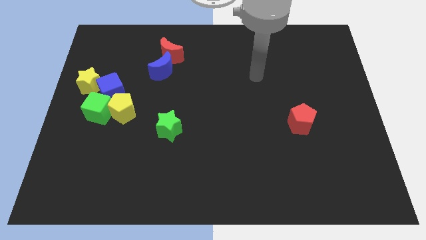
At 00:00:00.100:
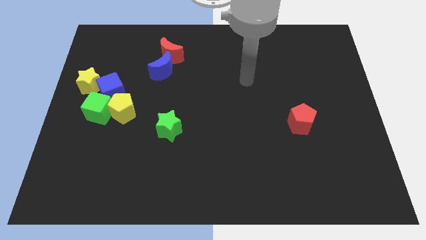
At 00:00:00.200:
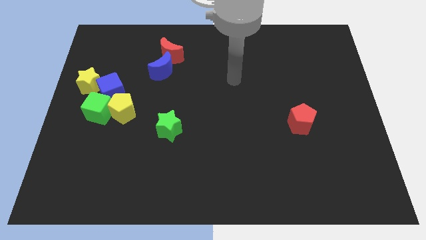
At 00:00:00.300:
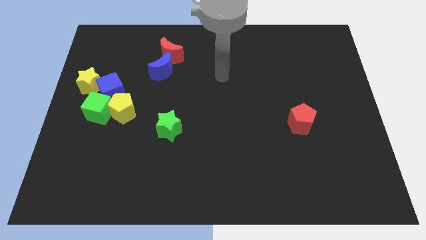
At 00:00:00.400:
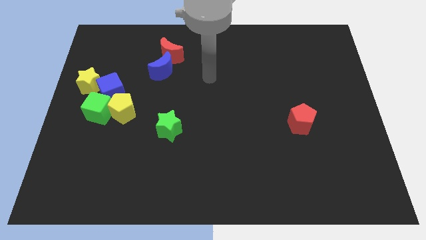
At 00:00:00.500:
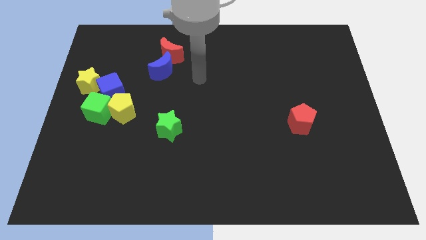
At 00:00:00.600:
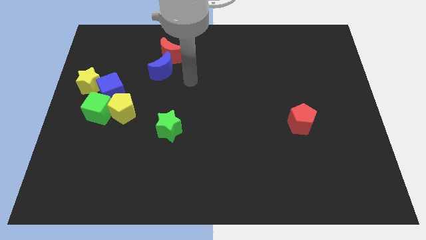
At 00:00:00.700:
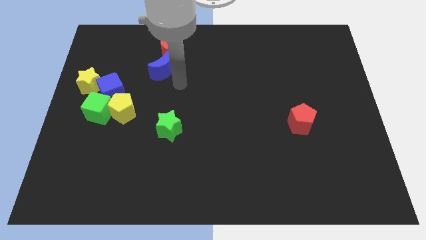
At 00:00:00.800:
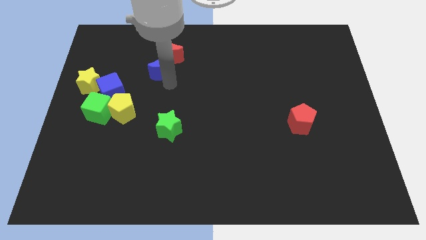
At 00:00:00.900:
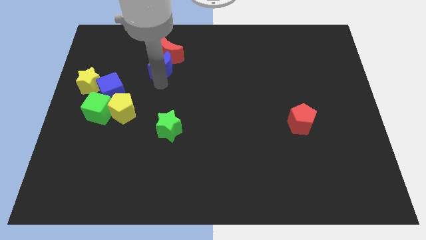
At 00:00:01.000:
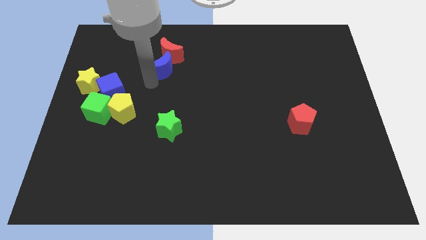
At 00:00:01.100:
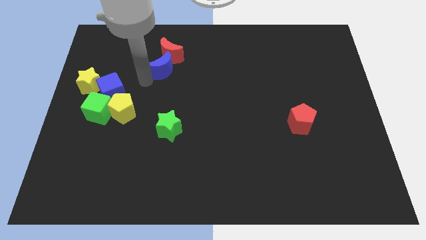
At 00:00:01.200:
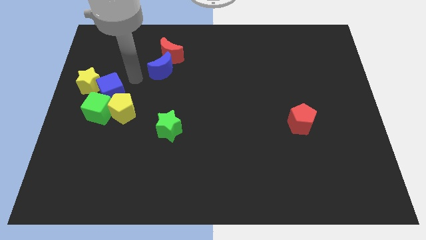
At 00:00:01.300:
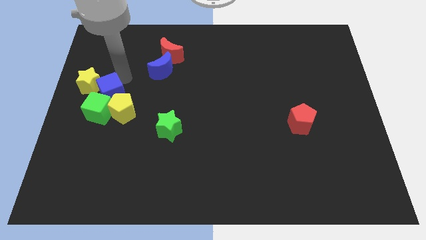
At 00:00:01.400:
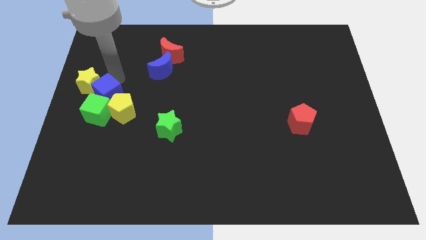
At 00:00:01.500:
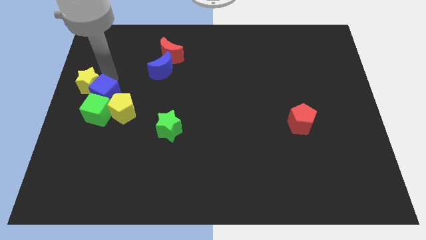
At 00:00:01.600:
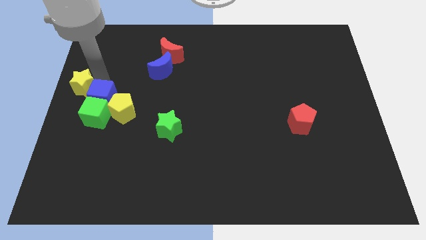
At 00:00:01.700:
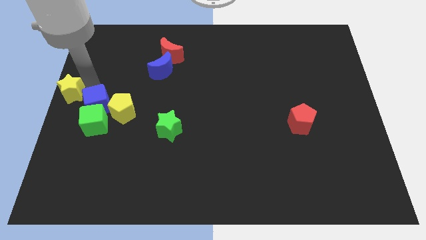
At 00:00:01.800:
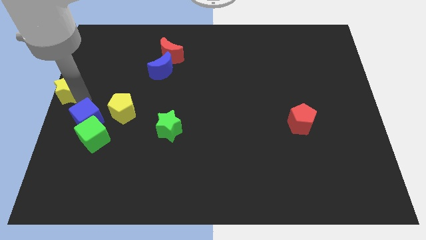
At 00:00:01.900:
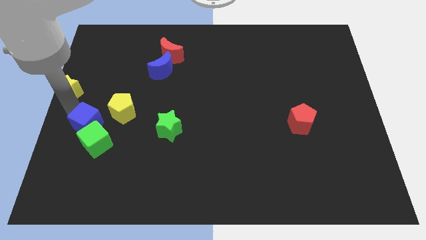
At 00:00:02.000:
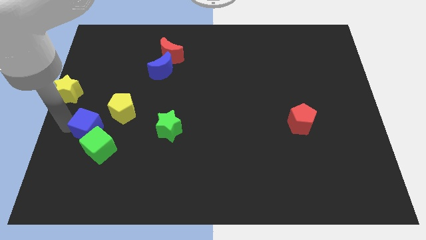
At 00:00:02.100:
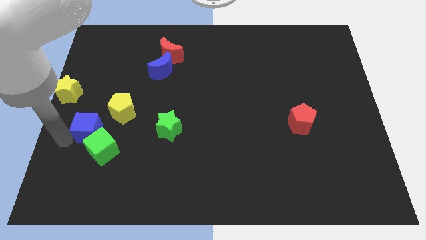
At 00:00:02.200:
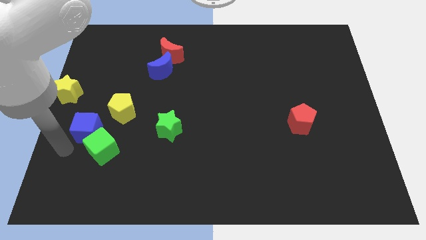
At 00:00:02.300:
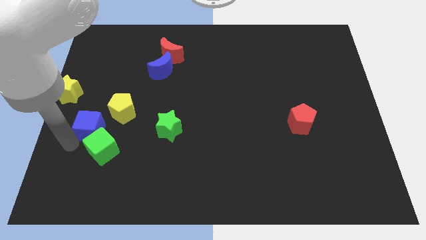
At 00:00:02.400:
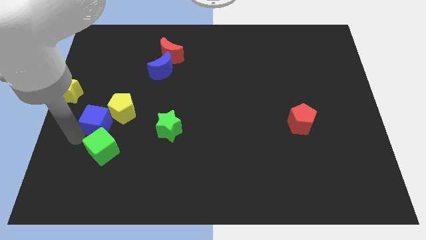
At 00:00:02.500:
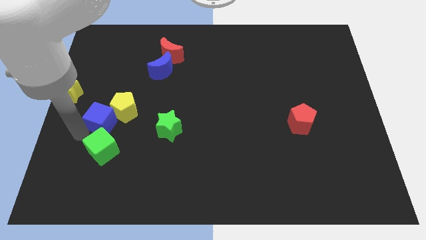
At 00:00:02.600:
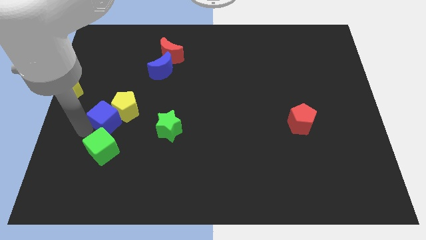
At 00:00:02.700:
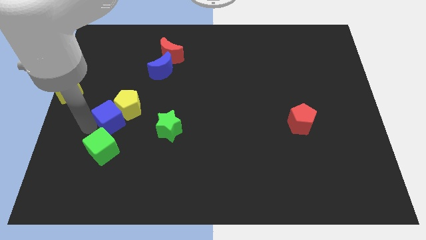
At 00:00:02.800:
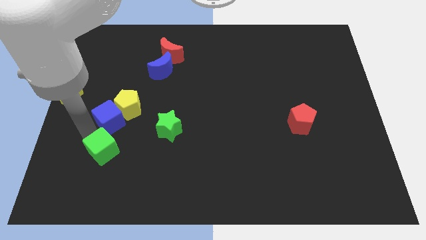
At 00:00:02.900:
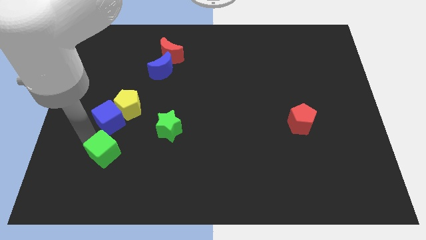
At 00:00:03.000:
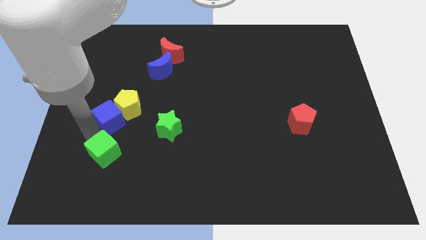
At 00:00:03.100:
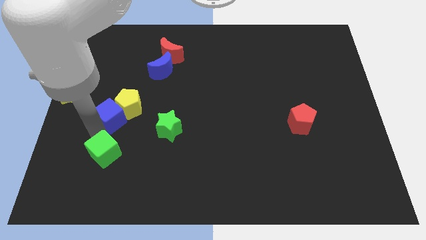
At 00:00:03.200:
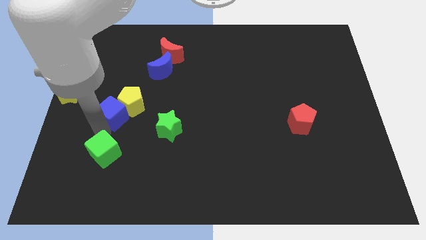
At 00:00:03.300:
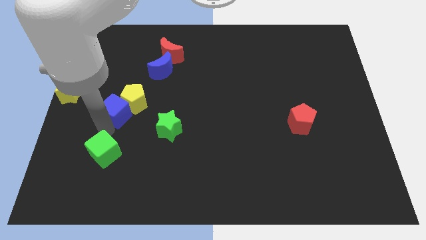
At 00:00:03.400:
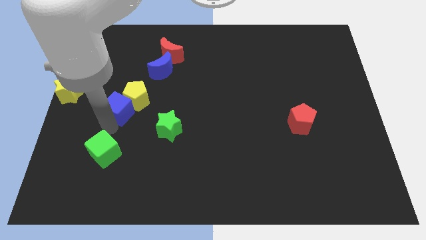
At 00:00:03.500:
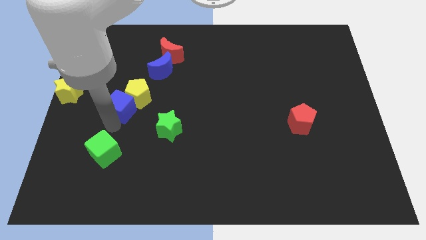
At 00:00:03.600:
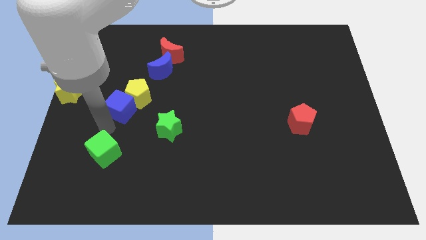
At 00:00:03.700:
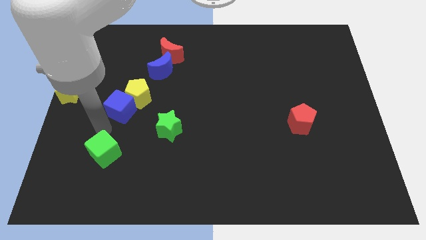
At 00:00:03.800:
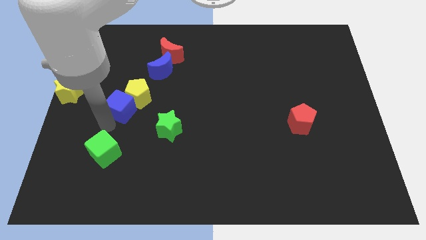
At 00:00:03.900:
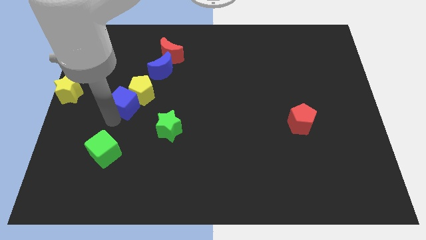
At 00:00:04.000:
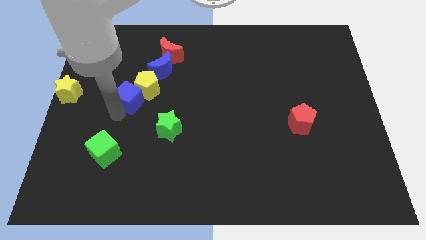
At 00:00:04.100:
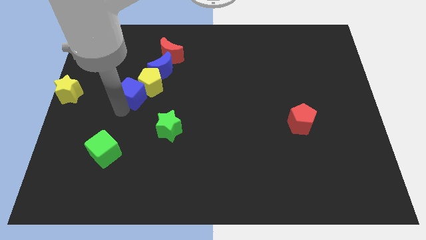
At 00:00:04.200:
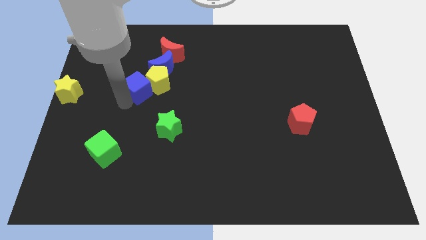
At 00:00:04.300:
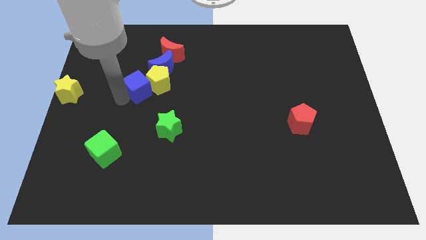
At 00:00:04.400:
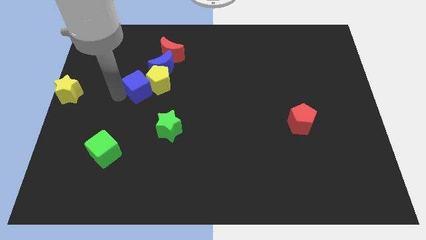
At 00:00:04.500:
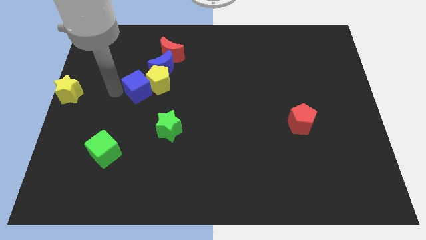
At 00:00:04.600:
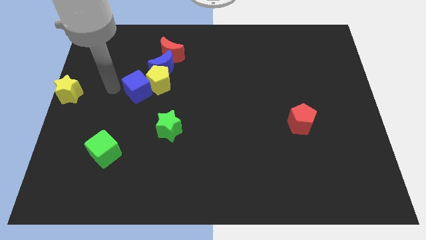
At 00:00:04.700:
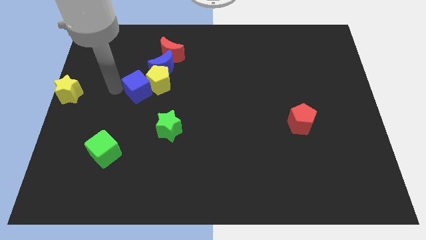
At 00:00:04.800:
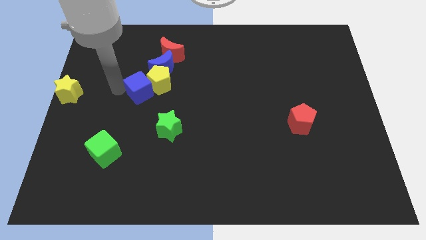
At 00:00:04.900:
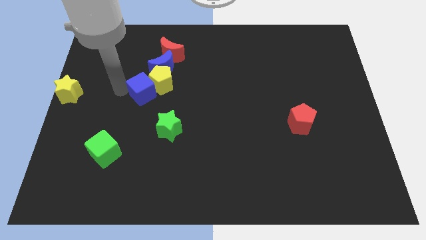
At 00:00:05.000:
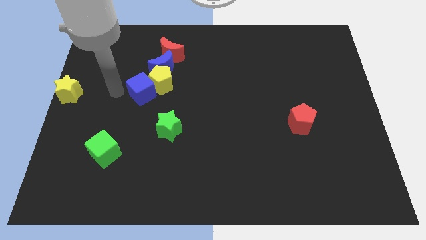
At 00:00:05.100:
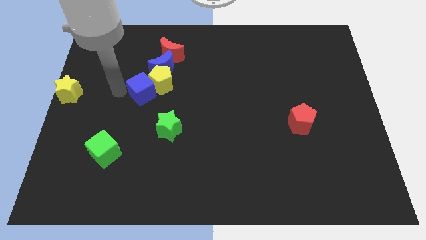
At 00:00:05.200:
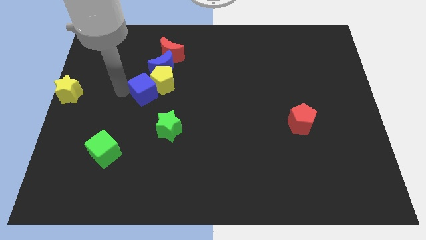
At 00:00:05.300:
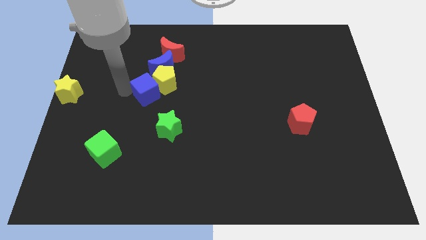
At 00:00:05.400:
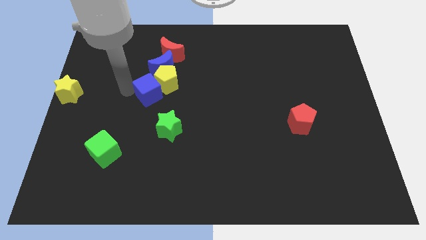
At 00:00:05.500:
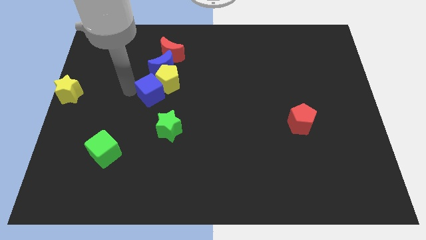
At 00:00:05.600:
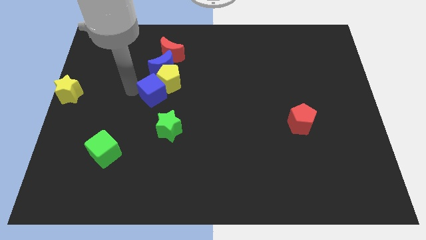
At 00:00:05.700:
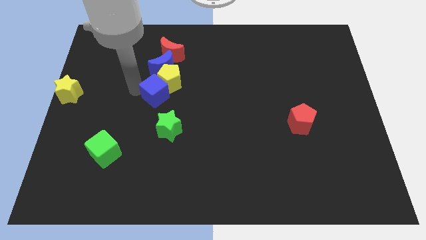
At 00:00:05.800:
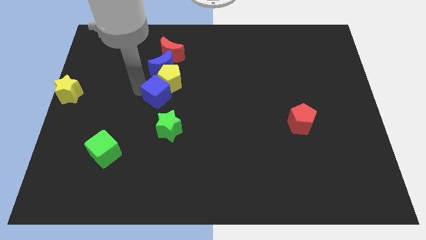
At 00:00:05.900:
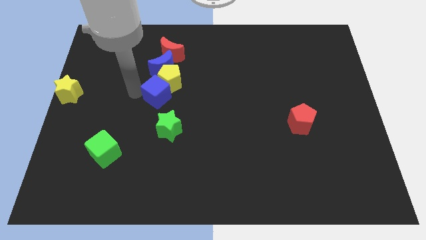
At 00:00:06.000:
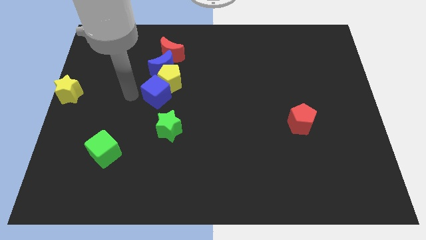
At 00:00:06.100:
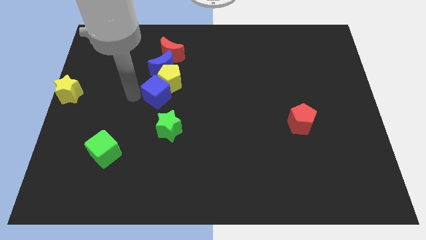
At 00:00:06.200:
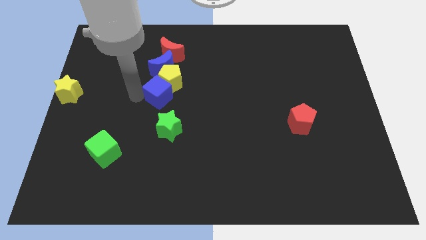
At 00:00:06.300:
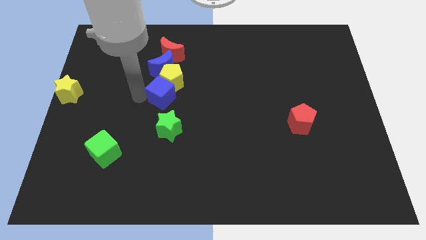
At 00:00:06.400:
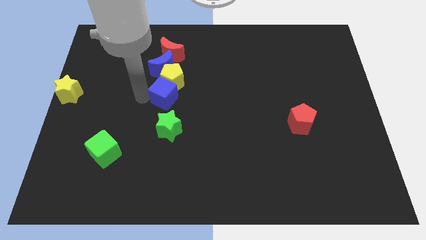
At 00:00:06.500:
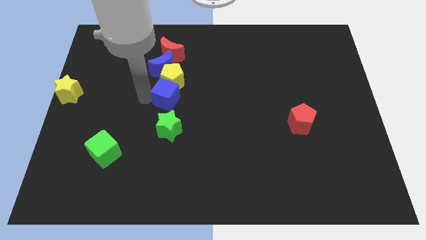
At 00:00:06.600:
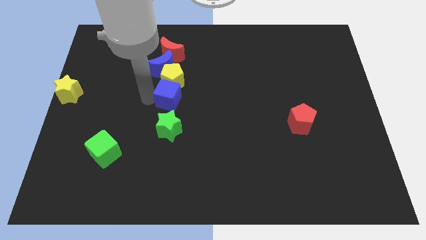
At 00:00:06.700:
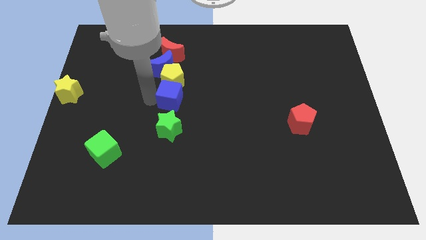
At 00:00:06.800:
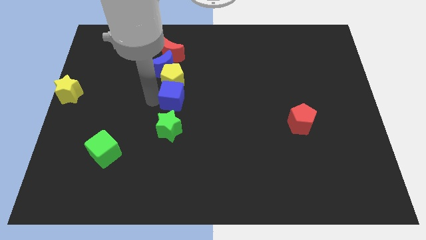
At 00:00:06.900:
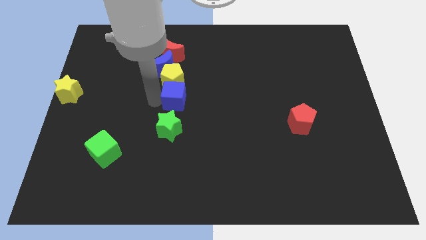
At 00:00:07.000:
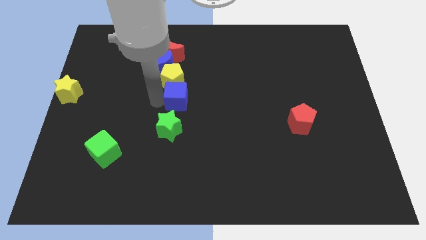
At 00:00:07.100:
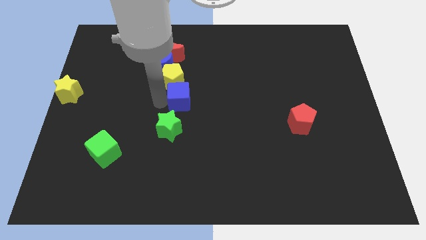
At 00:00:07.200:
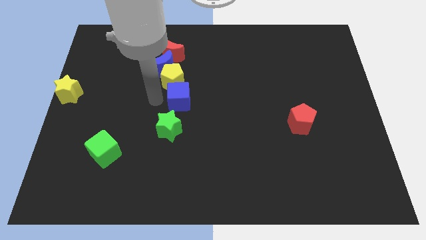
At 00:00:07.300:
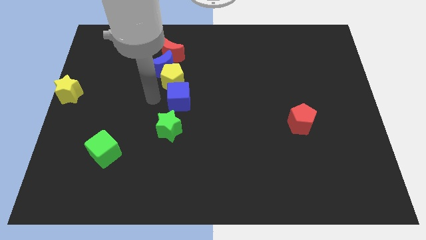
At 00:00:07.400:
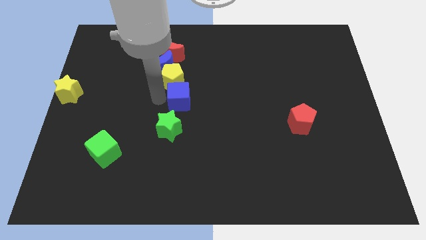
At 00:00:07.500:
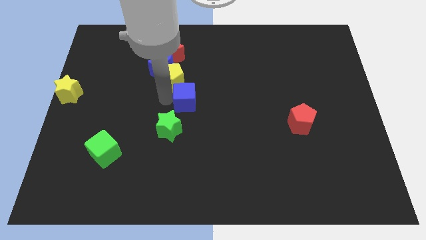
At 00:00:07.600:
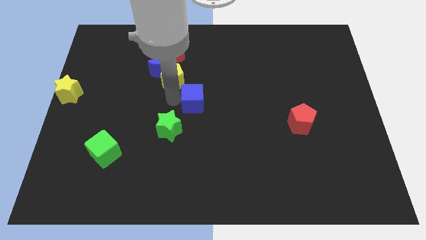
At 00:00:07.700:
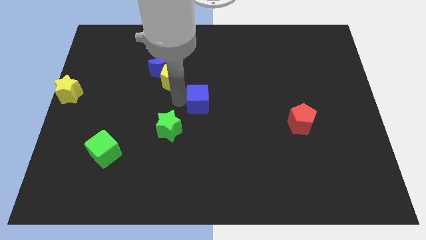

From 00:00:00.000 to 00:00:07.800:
slide the blue cube right
